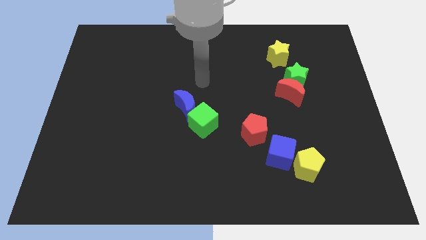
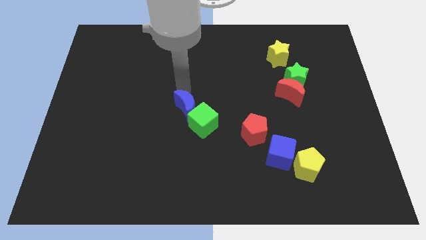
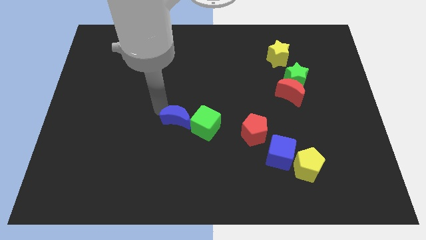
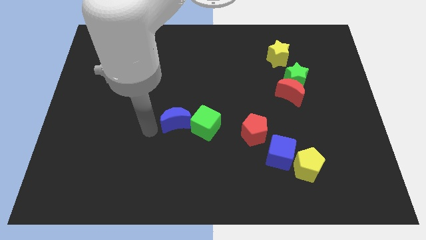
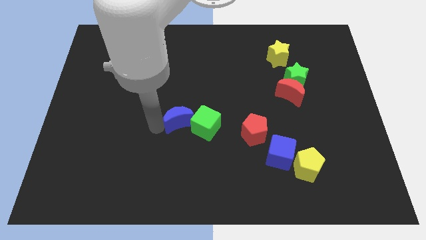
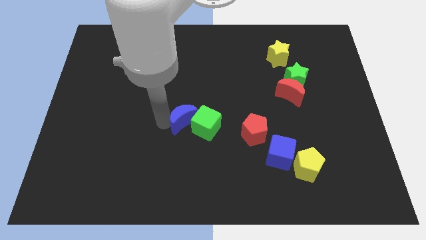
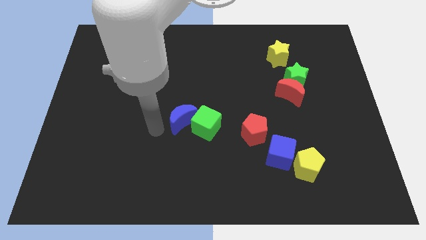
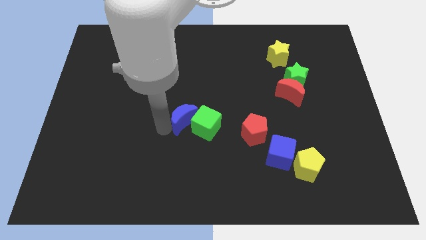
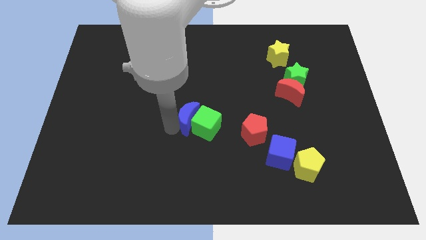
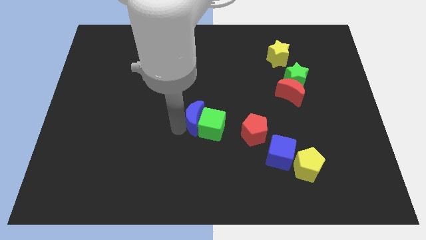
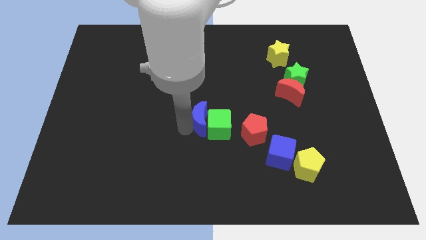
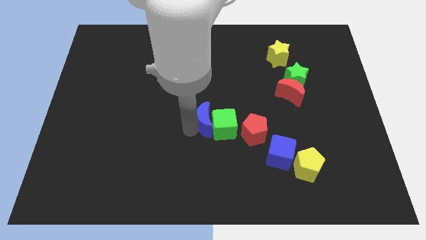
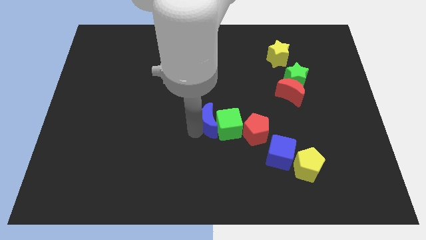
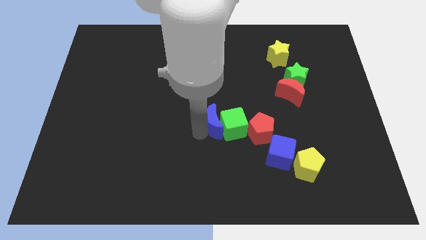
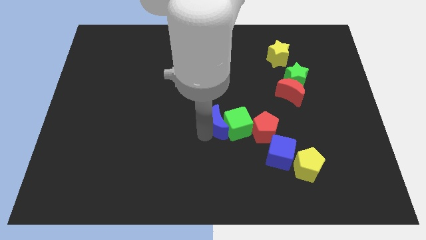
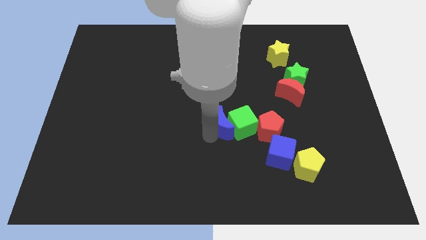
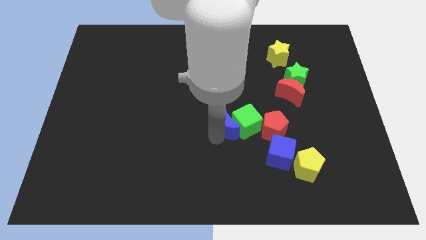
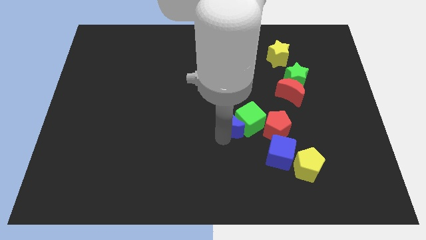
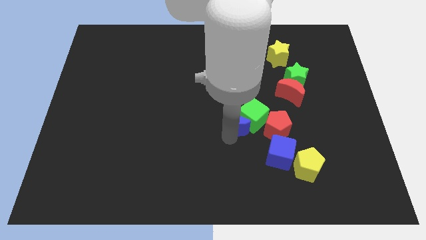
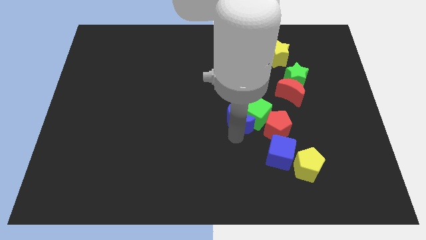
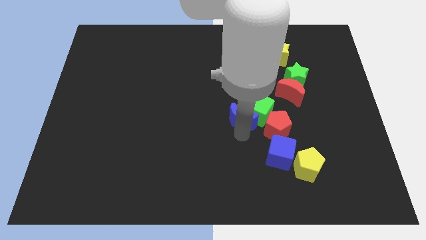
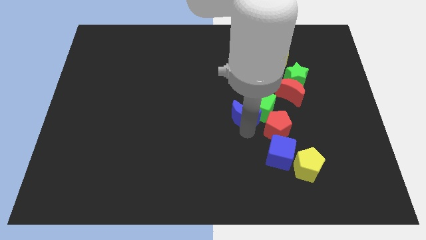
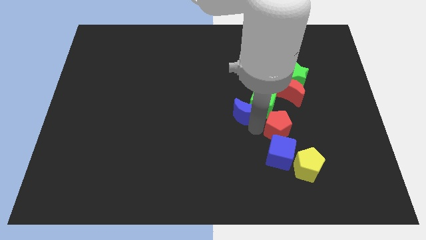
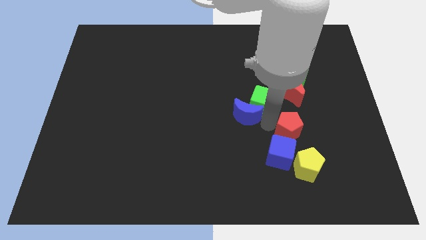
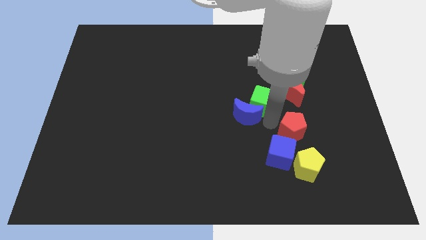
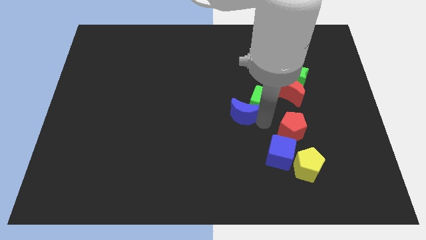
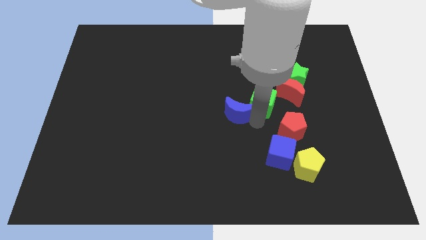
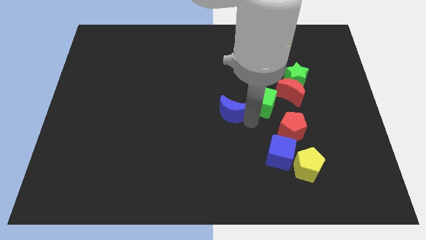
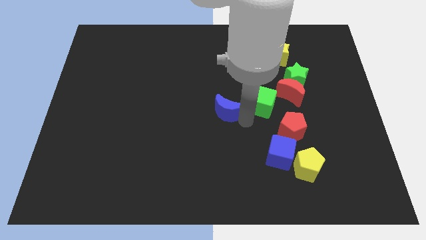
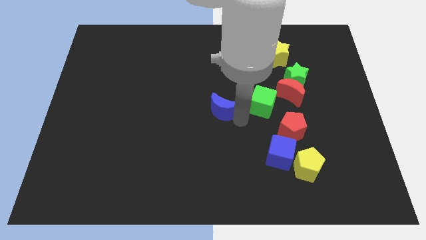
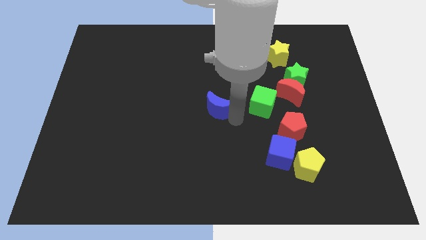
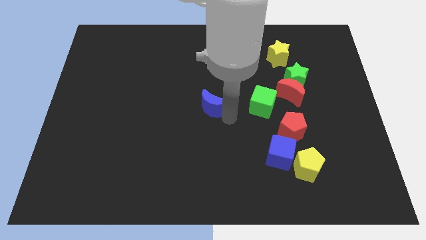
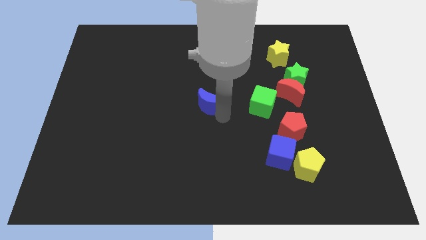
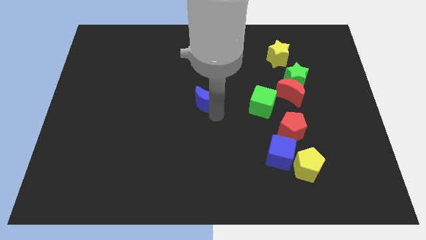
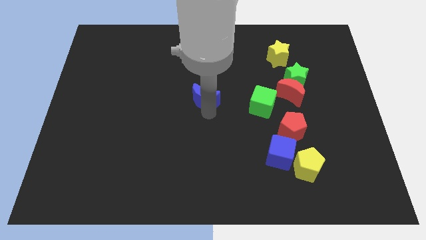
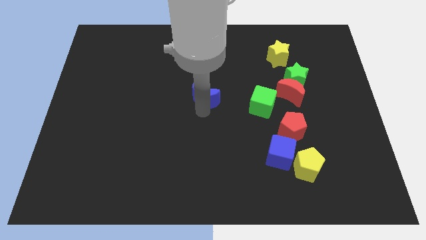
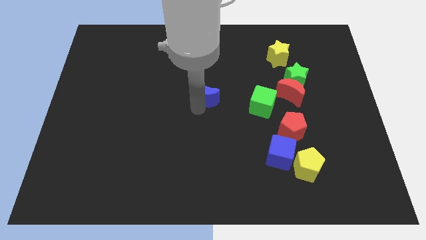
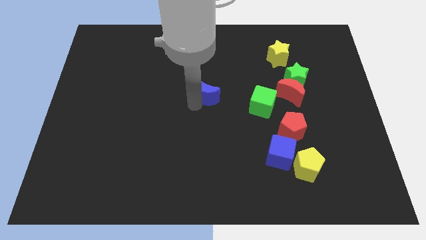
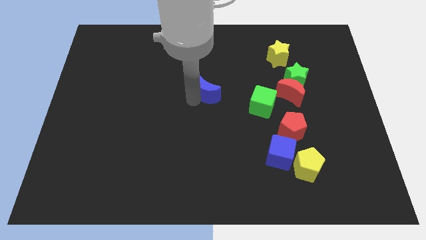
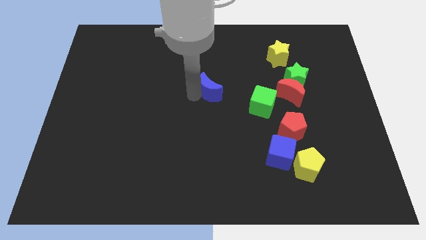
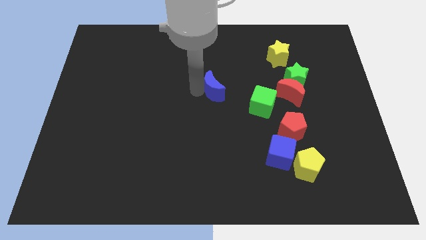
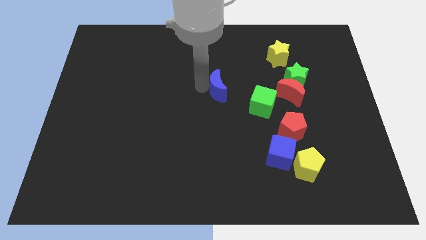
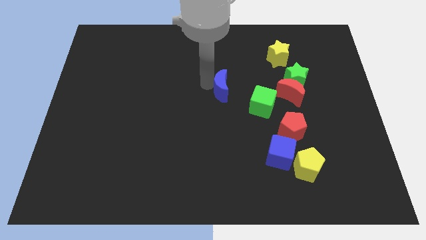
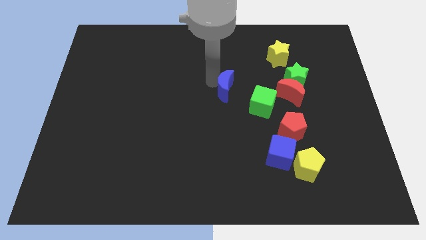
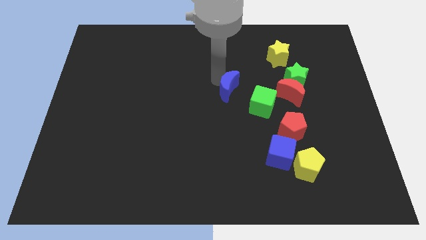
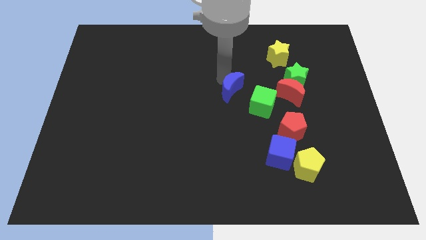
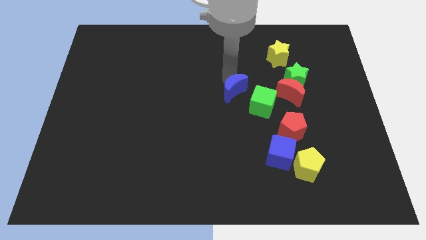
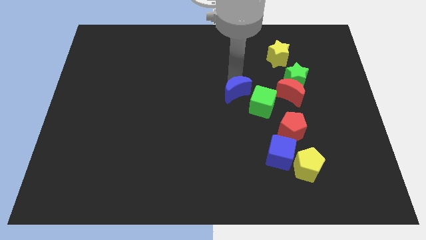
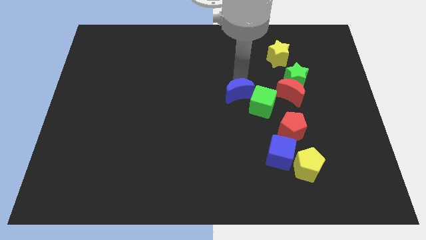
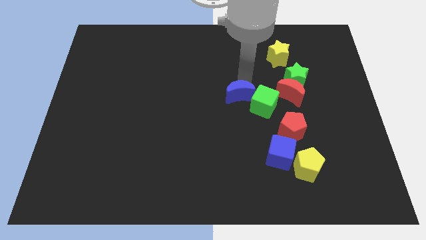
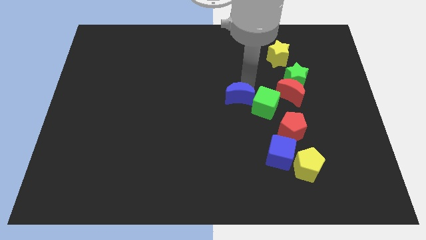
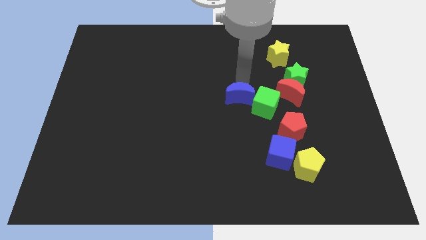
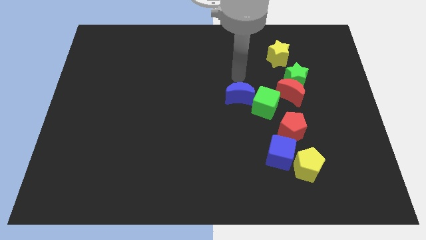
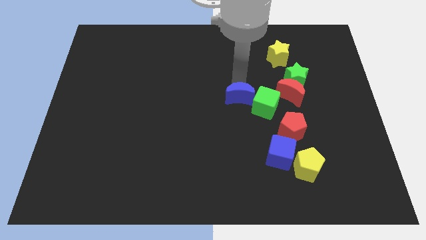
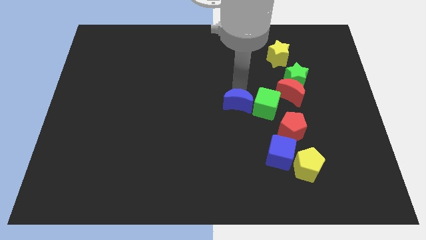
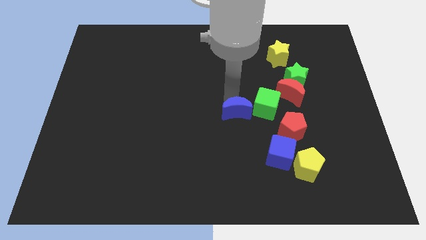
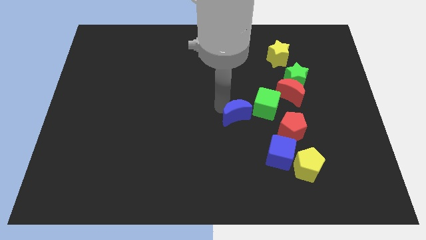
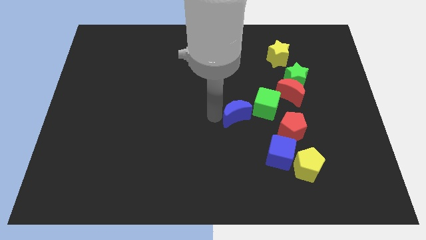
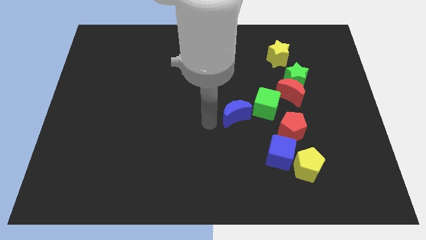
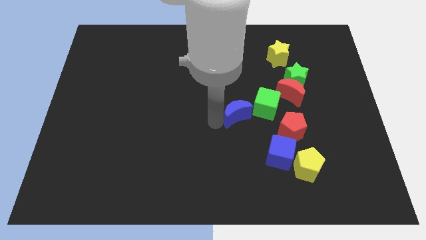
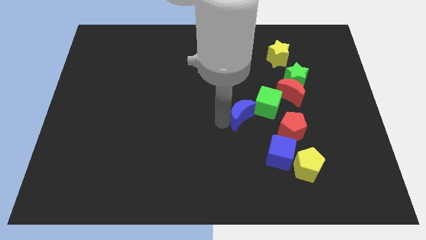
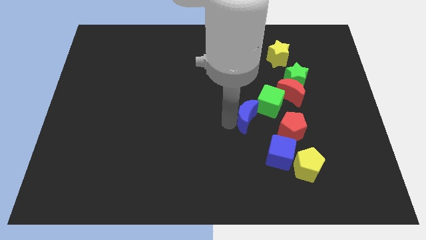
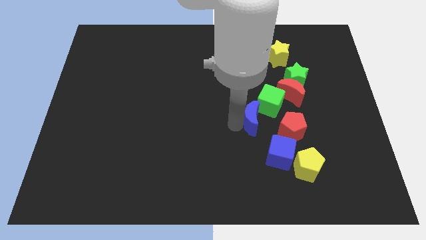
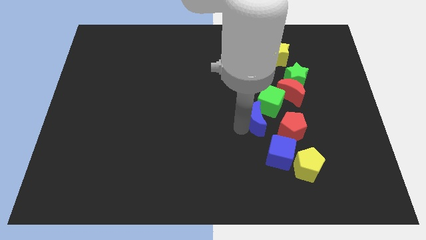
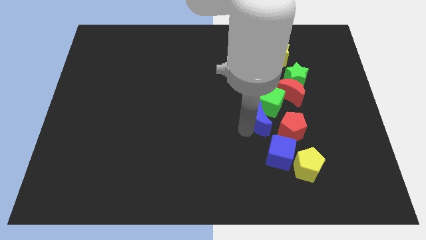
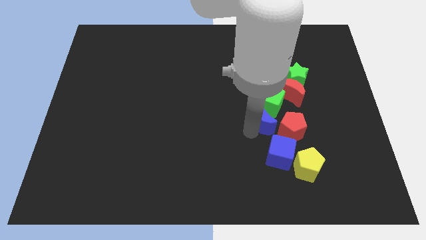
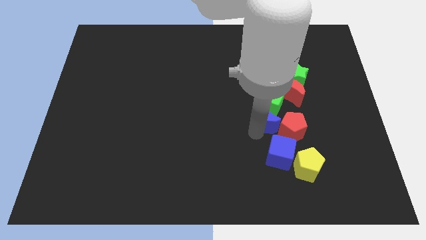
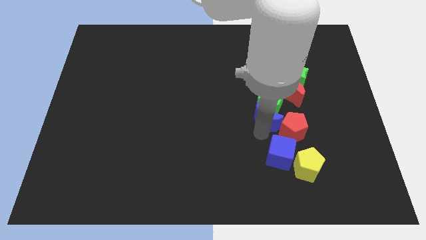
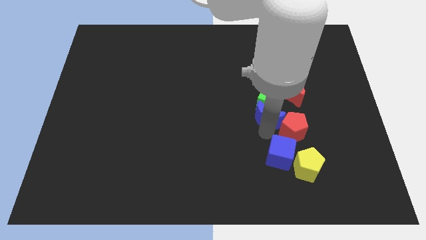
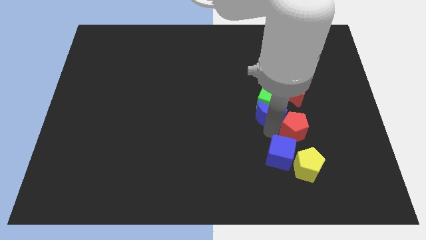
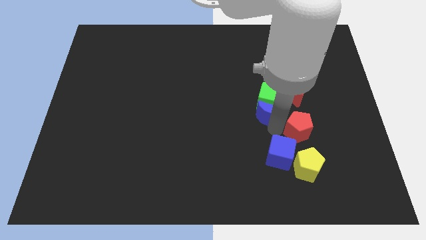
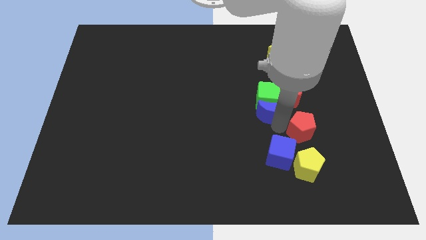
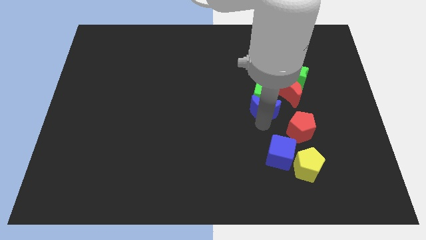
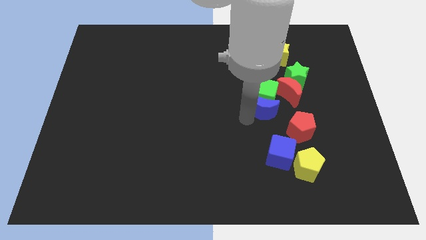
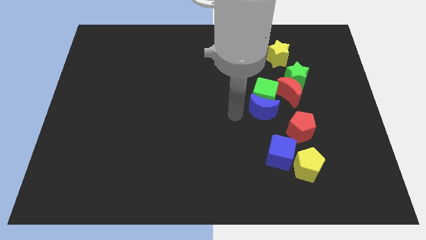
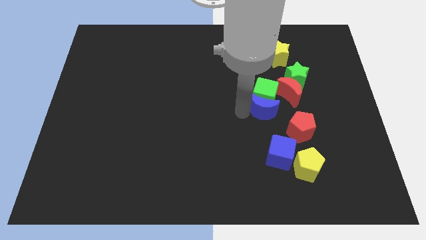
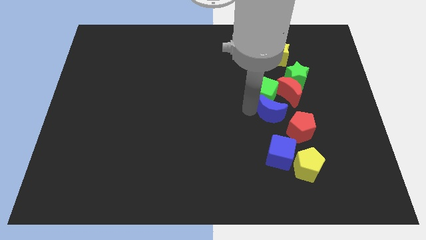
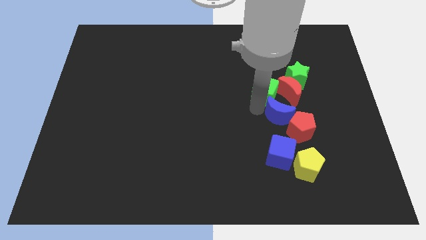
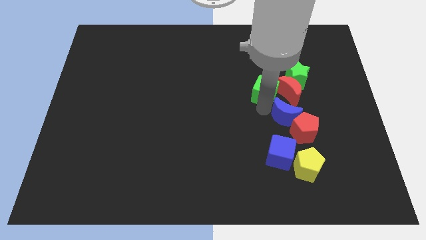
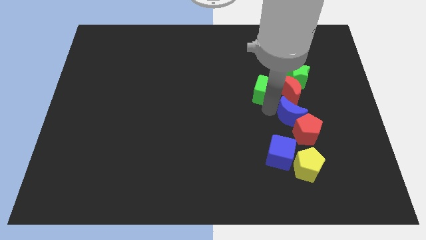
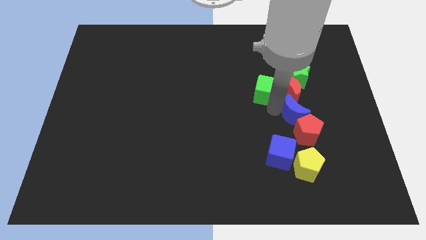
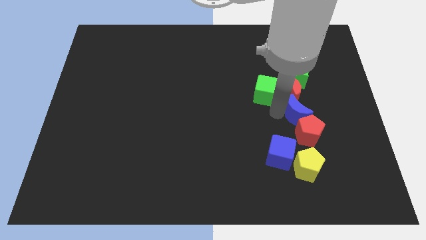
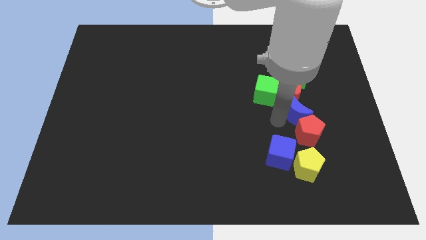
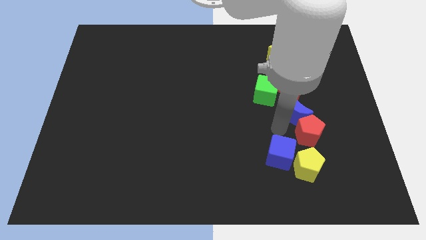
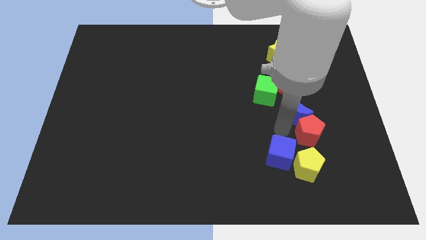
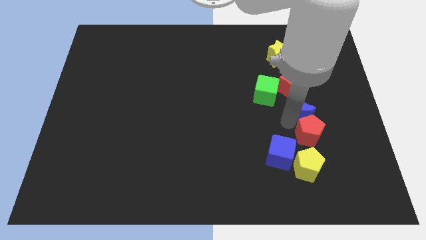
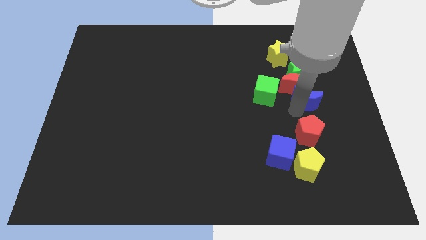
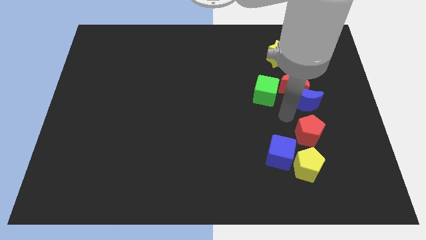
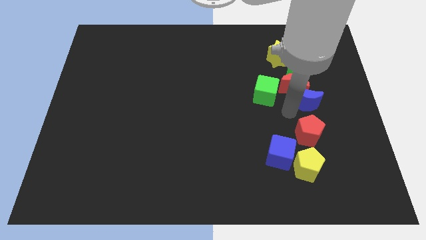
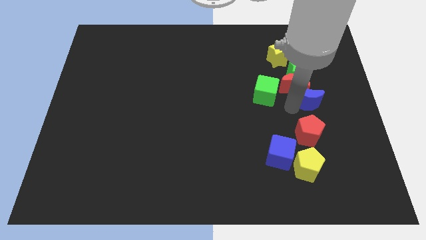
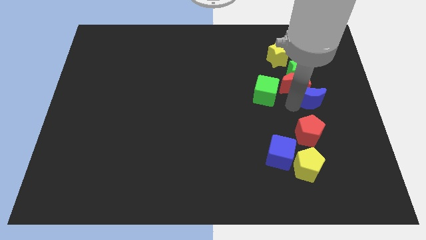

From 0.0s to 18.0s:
push the blue moon diagonally down and to the right of the green star
